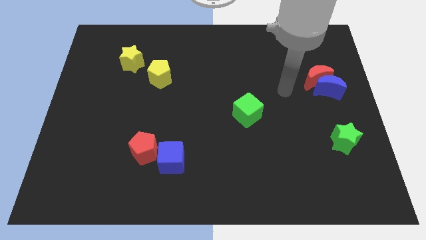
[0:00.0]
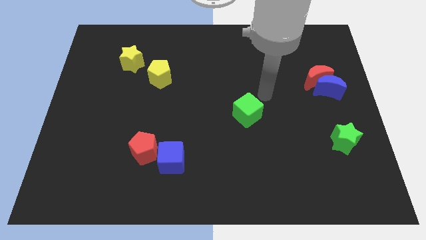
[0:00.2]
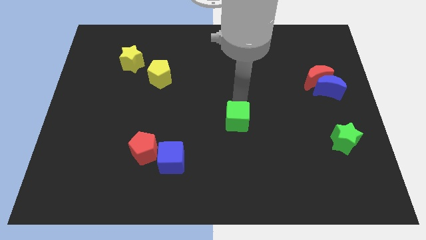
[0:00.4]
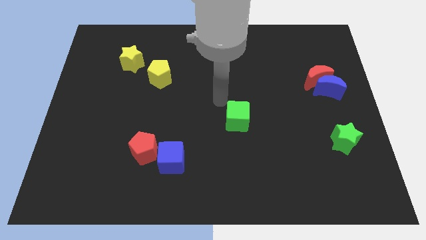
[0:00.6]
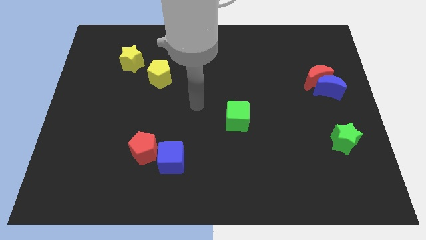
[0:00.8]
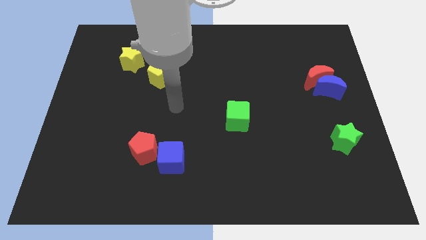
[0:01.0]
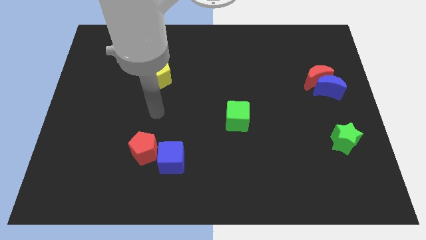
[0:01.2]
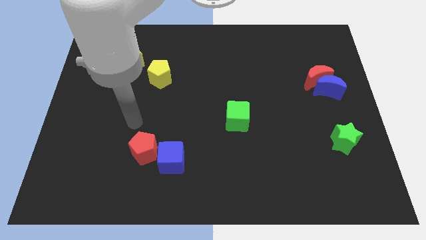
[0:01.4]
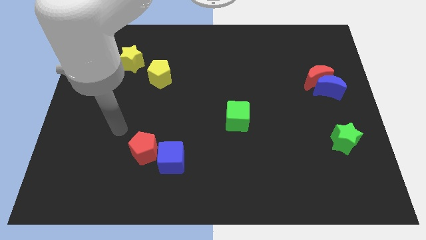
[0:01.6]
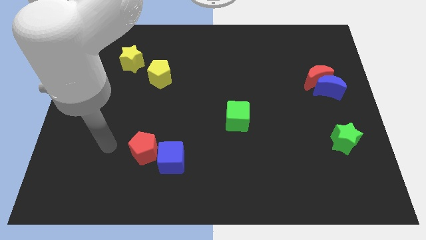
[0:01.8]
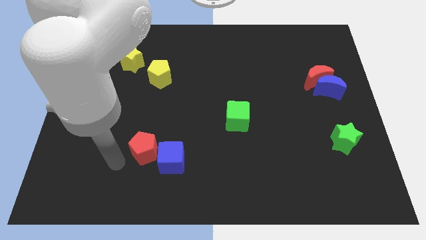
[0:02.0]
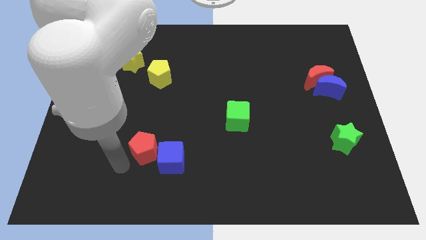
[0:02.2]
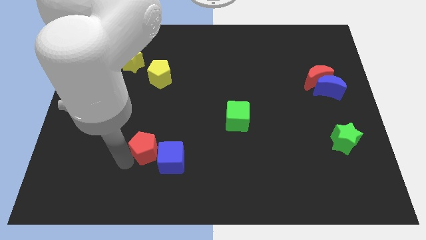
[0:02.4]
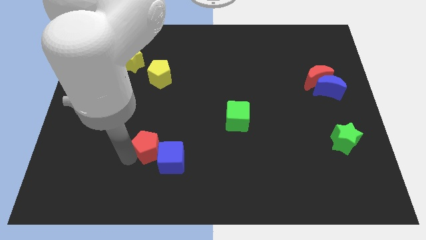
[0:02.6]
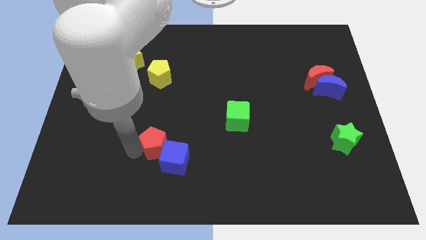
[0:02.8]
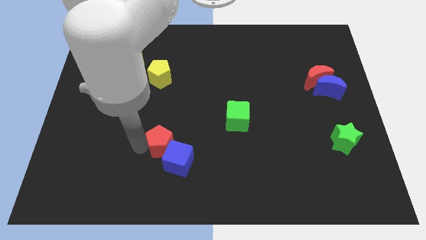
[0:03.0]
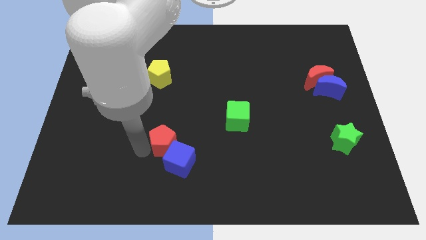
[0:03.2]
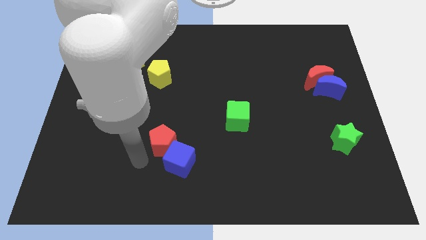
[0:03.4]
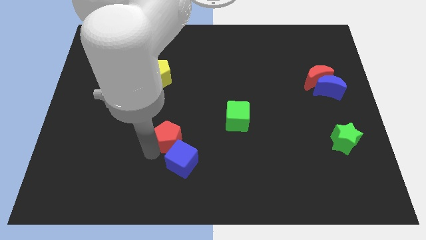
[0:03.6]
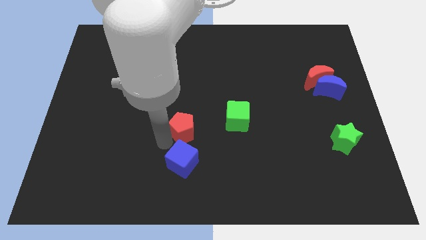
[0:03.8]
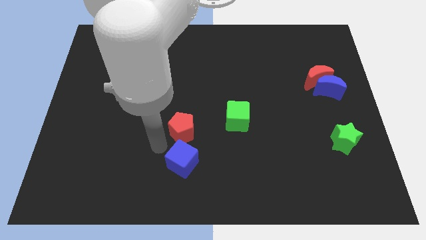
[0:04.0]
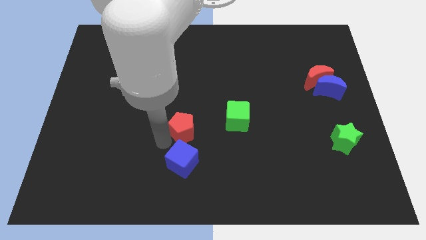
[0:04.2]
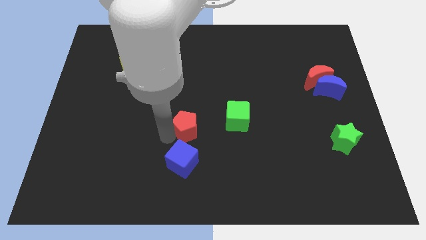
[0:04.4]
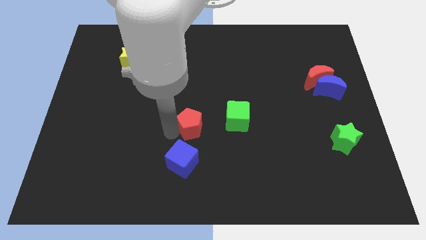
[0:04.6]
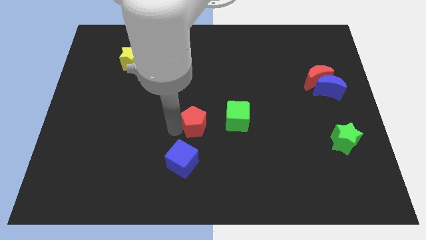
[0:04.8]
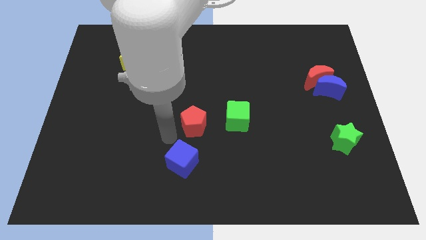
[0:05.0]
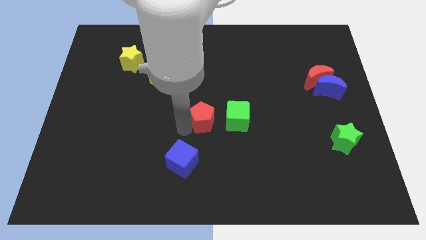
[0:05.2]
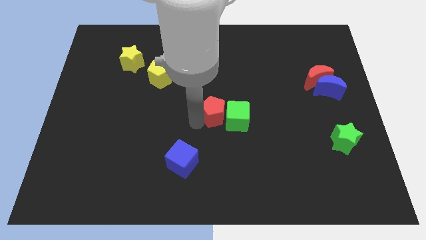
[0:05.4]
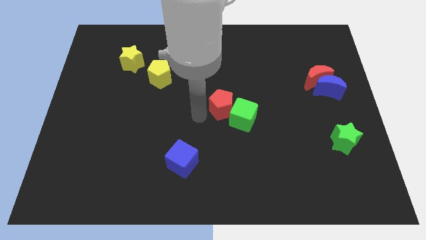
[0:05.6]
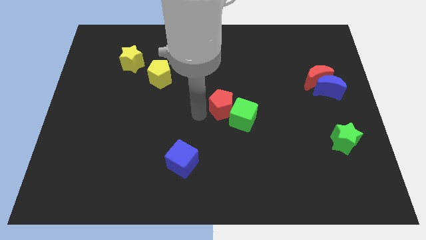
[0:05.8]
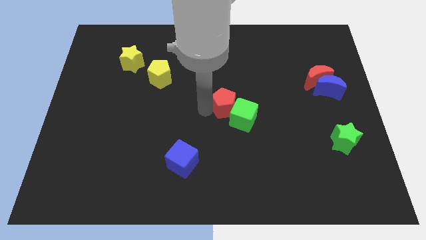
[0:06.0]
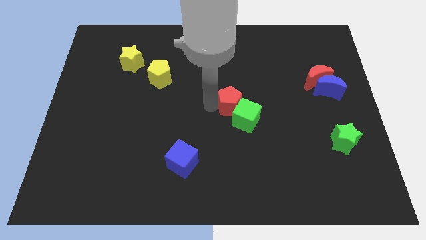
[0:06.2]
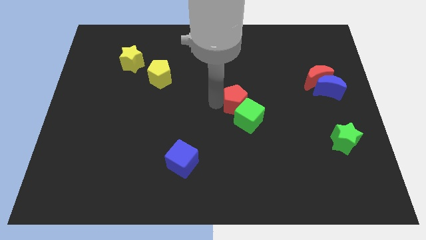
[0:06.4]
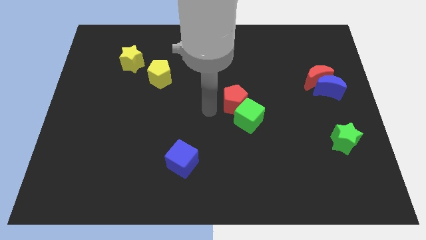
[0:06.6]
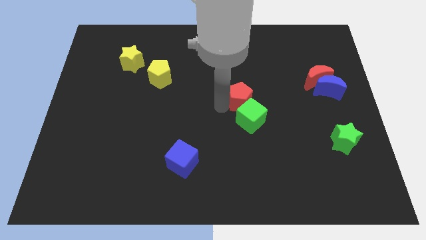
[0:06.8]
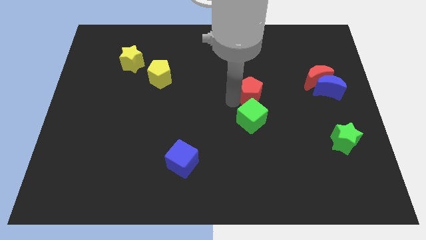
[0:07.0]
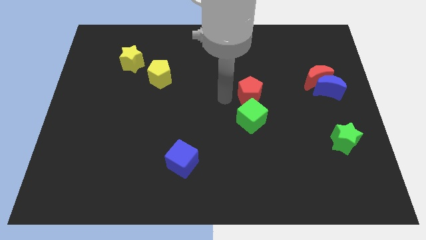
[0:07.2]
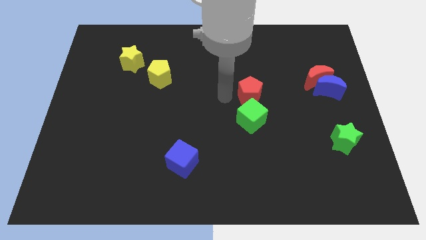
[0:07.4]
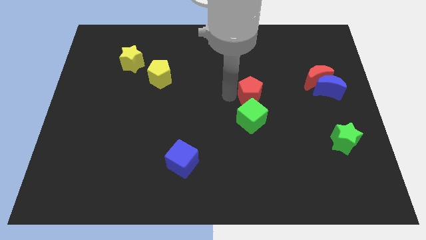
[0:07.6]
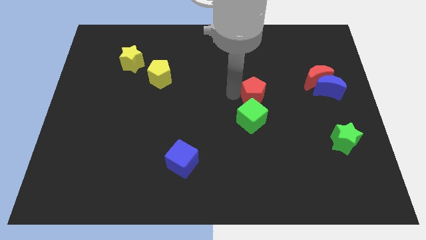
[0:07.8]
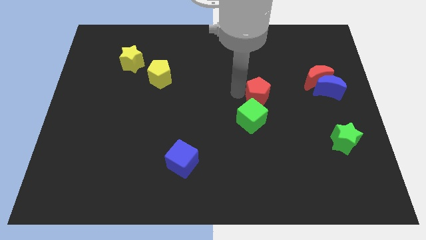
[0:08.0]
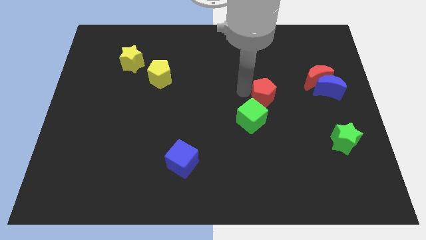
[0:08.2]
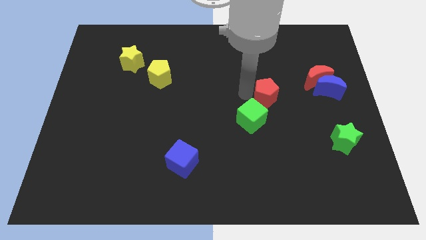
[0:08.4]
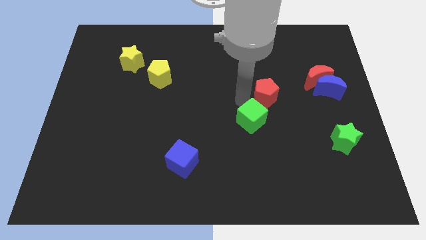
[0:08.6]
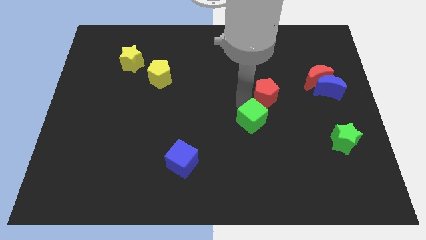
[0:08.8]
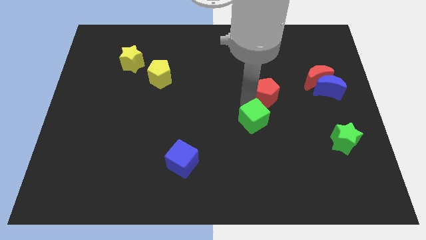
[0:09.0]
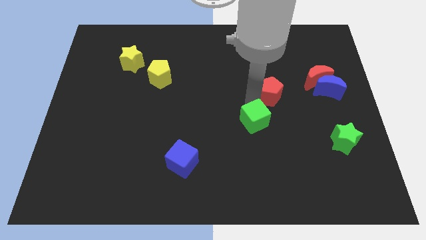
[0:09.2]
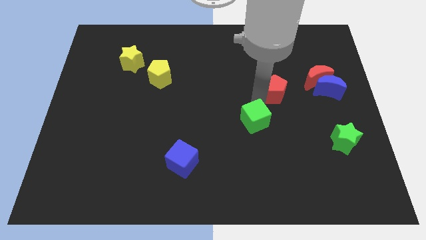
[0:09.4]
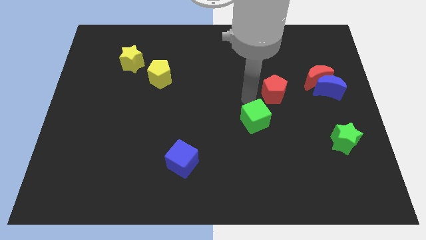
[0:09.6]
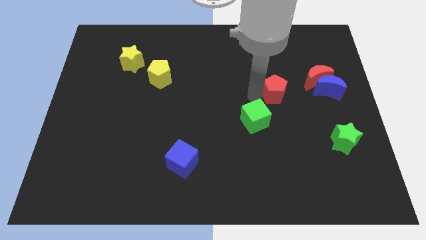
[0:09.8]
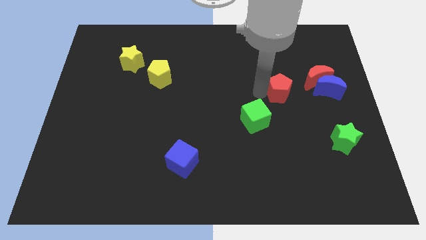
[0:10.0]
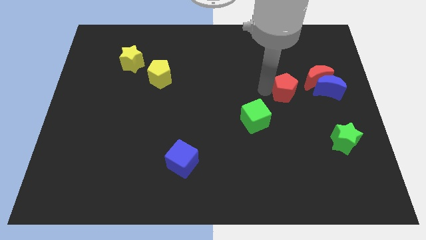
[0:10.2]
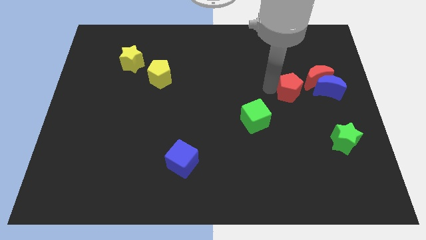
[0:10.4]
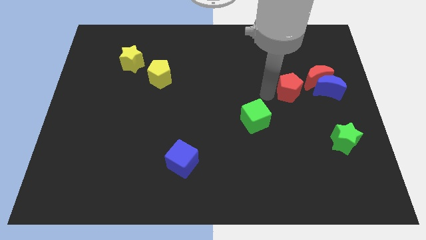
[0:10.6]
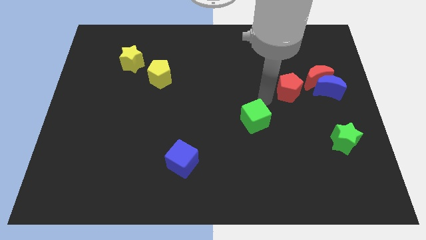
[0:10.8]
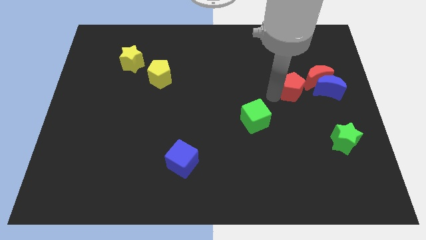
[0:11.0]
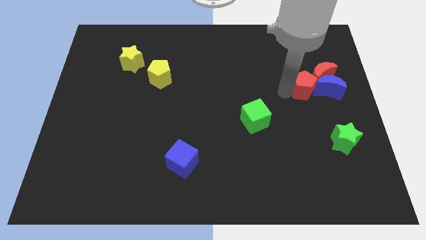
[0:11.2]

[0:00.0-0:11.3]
put the red pentagon next to the red moon

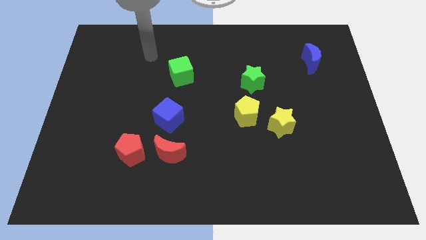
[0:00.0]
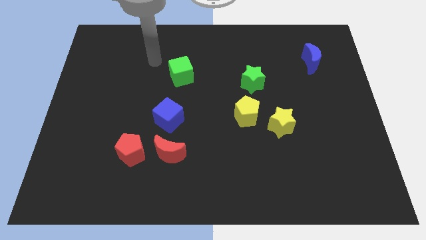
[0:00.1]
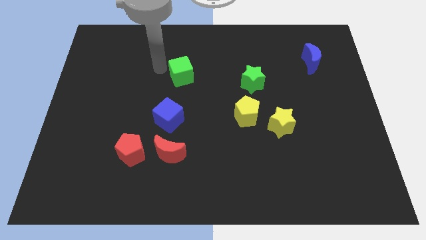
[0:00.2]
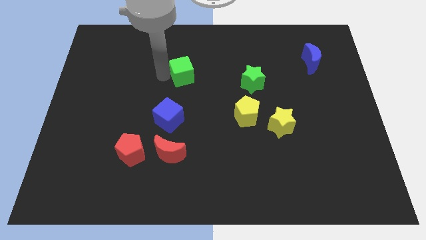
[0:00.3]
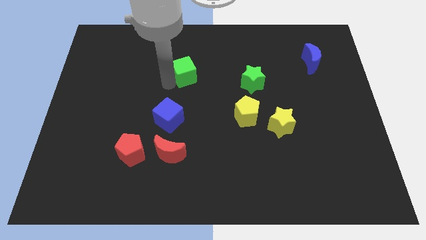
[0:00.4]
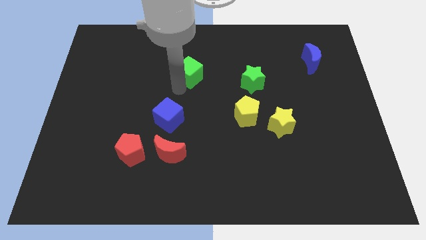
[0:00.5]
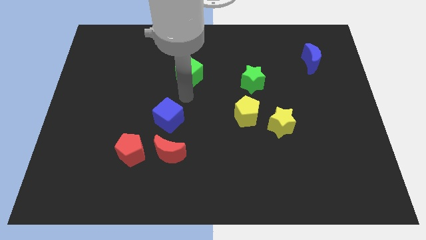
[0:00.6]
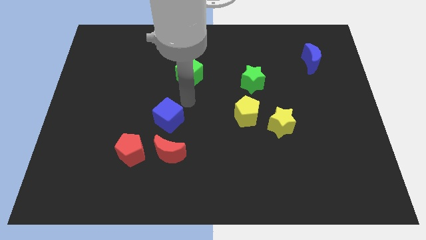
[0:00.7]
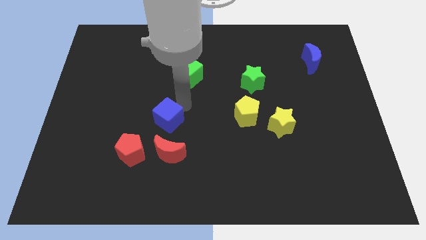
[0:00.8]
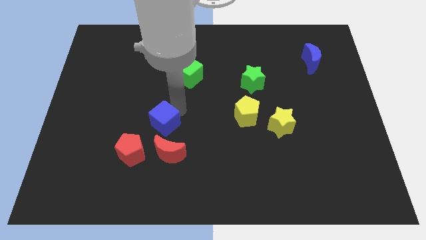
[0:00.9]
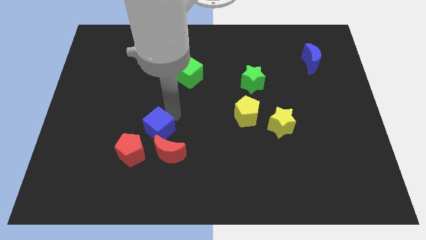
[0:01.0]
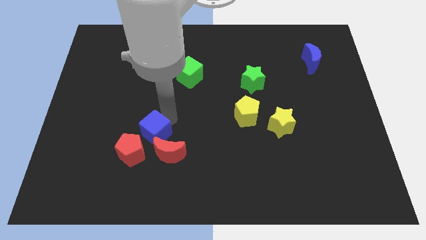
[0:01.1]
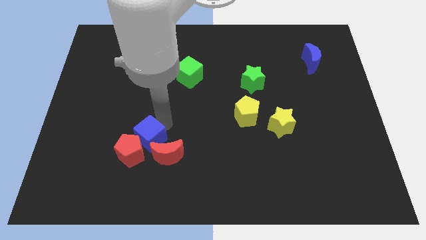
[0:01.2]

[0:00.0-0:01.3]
push the blue cube close to the red pentagon
